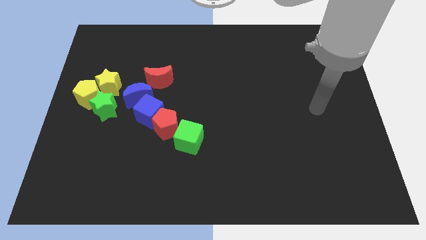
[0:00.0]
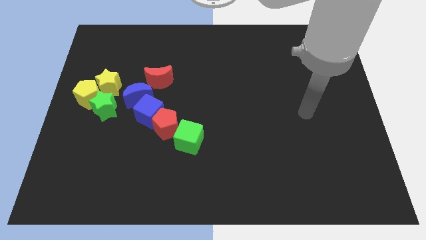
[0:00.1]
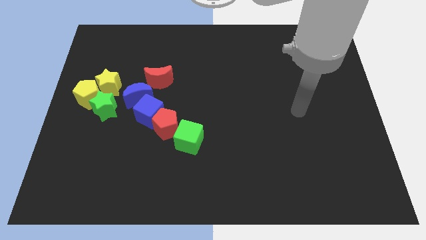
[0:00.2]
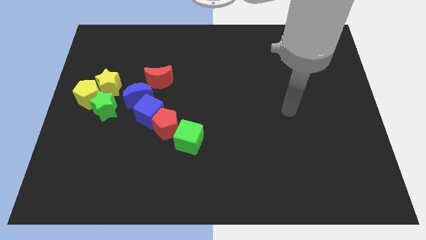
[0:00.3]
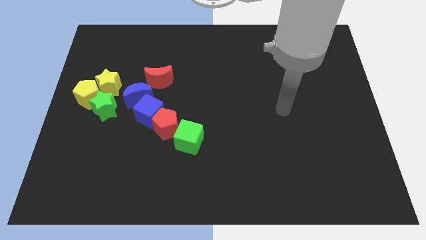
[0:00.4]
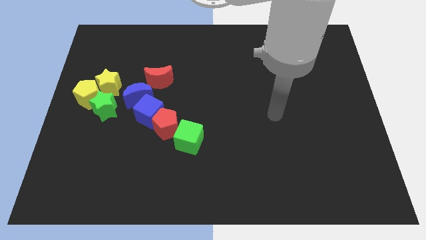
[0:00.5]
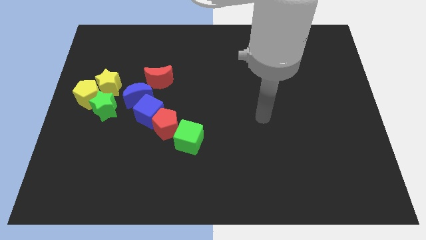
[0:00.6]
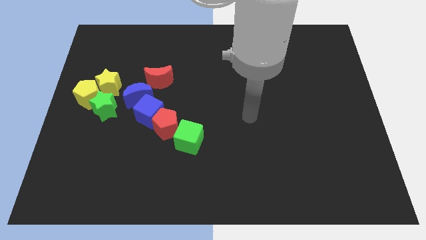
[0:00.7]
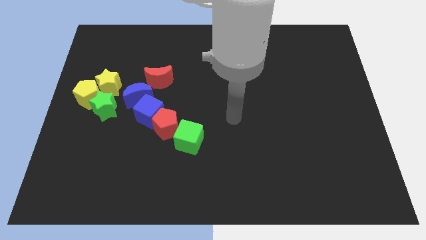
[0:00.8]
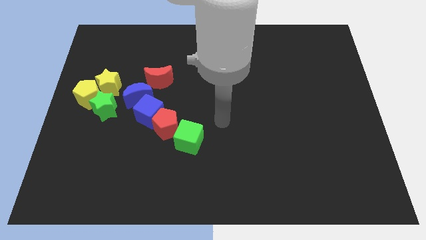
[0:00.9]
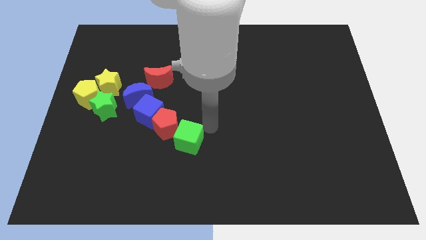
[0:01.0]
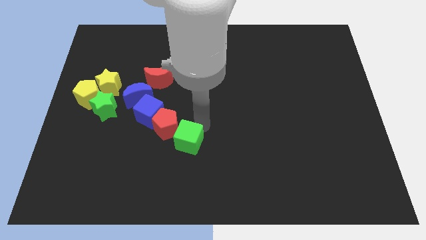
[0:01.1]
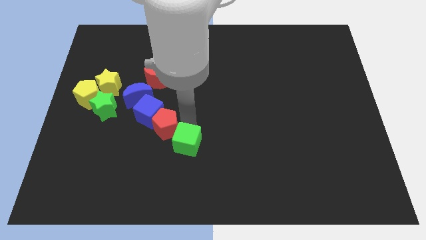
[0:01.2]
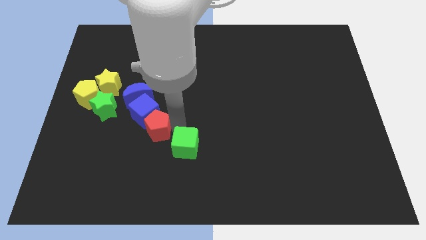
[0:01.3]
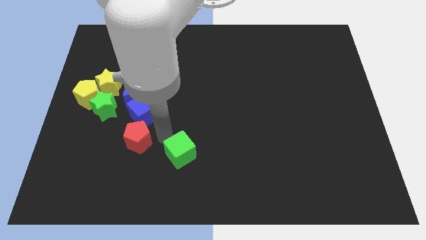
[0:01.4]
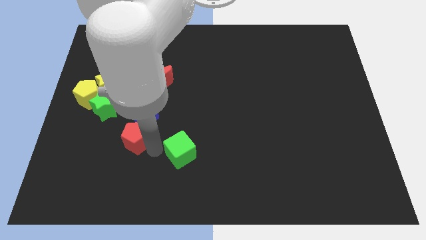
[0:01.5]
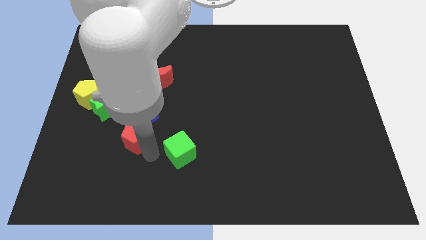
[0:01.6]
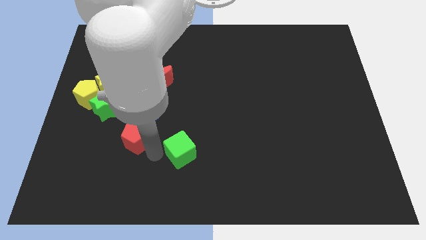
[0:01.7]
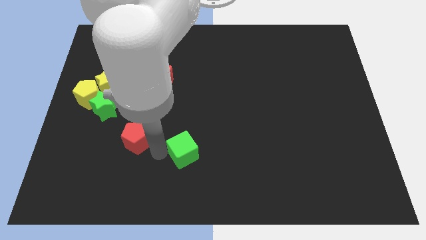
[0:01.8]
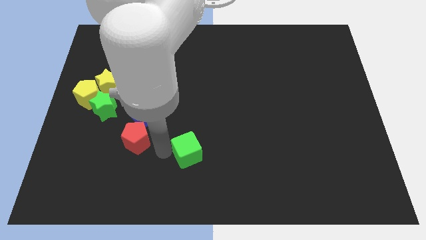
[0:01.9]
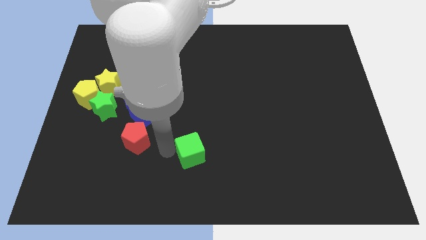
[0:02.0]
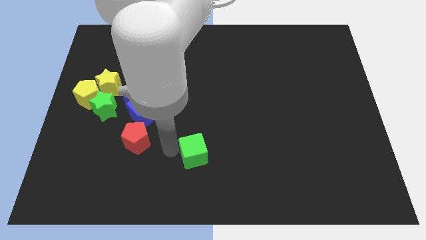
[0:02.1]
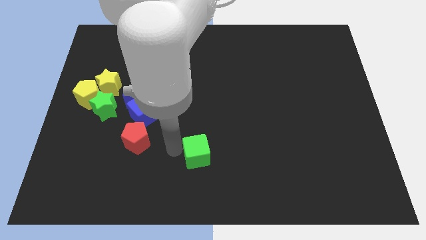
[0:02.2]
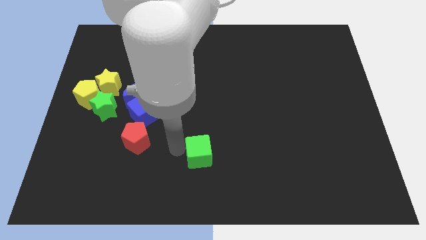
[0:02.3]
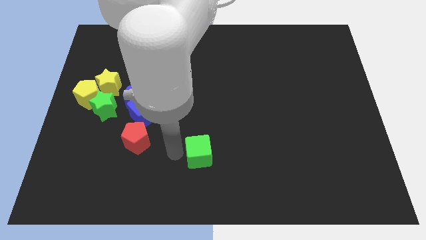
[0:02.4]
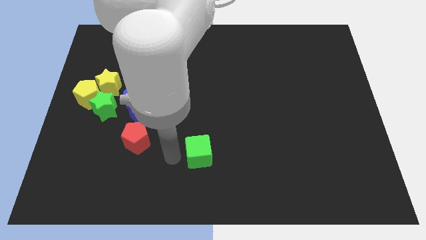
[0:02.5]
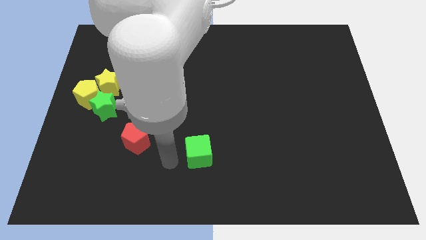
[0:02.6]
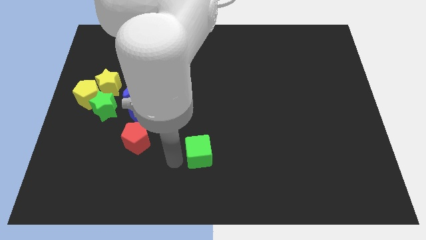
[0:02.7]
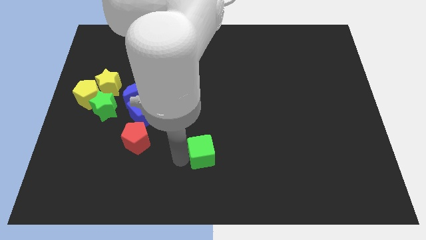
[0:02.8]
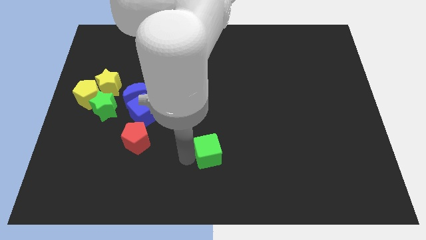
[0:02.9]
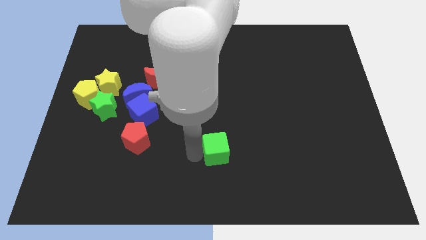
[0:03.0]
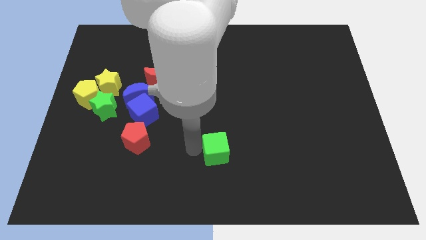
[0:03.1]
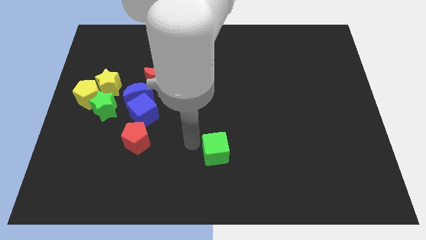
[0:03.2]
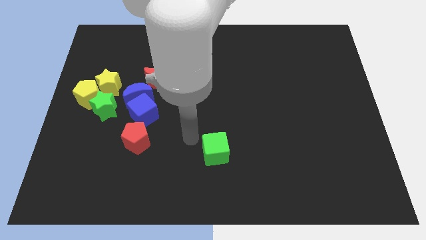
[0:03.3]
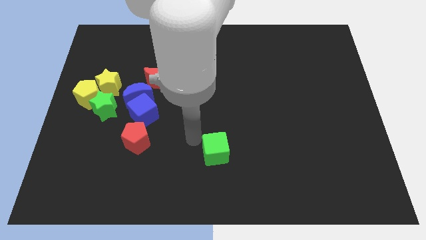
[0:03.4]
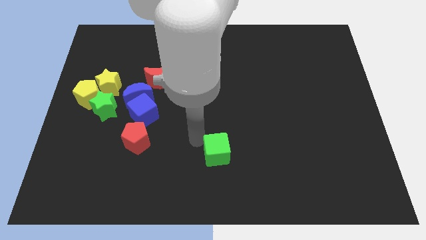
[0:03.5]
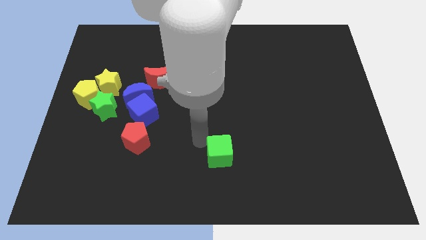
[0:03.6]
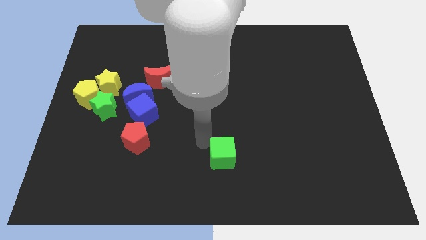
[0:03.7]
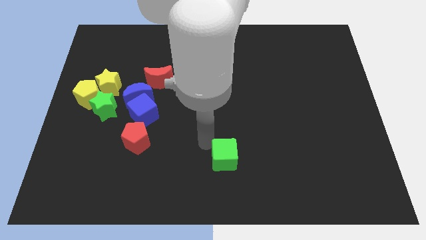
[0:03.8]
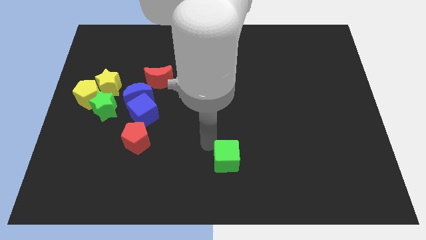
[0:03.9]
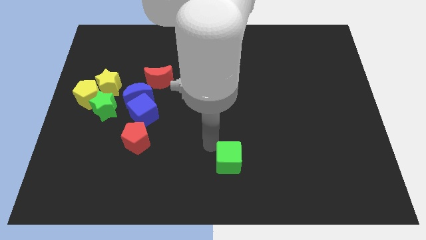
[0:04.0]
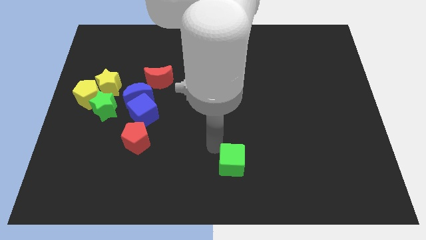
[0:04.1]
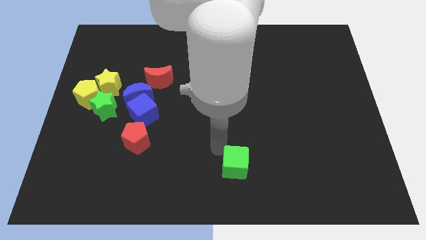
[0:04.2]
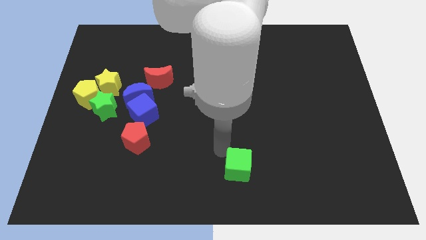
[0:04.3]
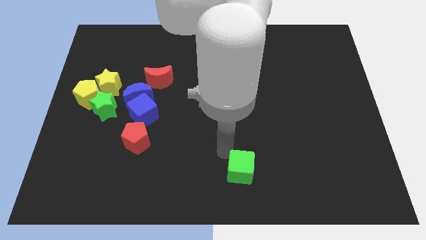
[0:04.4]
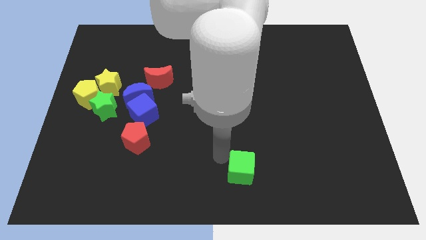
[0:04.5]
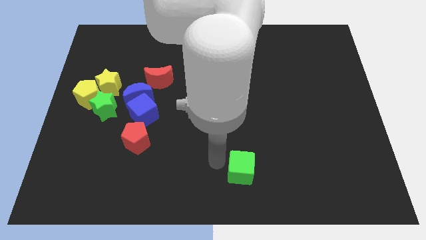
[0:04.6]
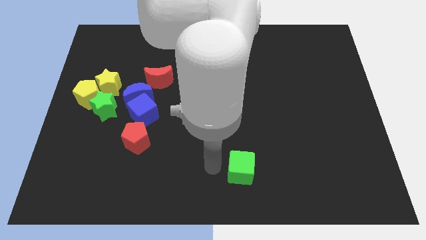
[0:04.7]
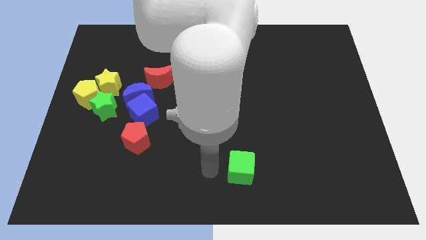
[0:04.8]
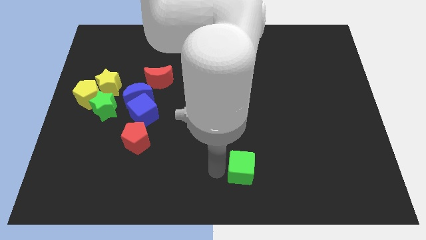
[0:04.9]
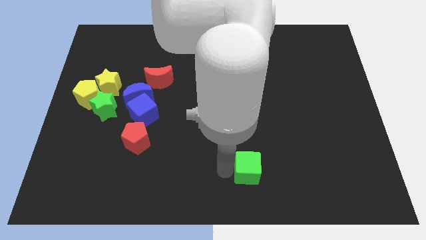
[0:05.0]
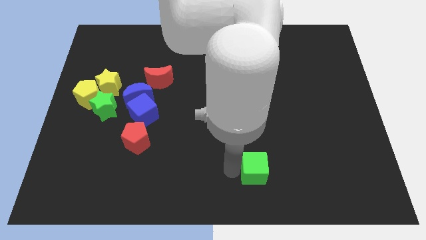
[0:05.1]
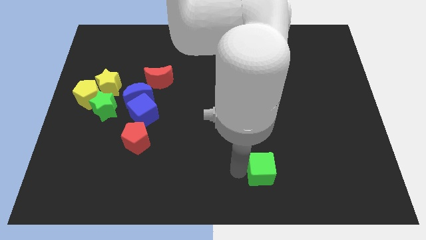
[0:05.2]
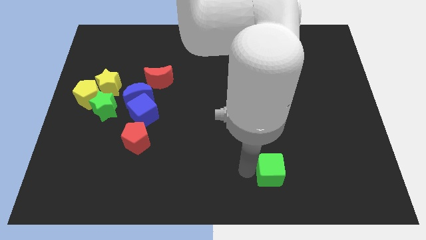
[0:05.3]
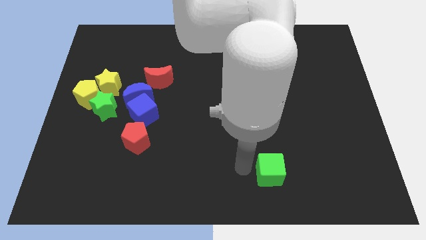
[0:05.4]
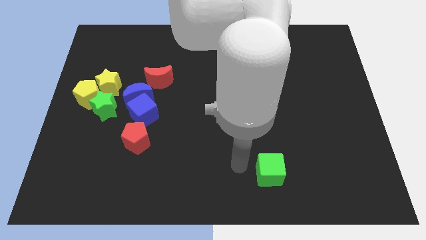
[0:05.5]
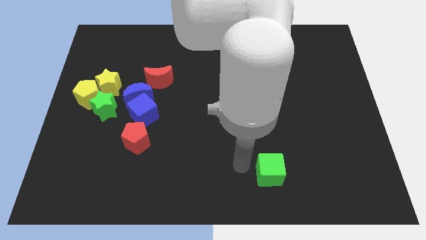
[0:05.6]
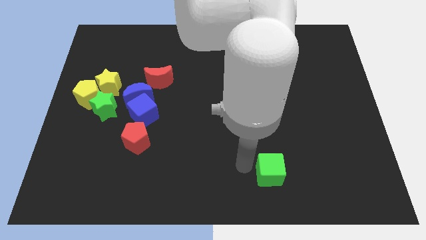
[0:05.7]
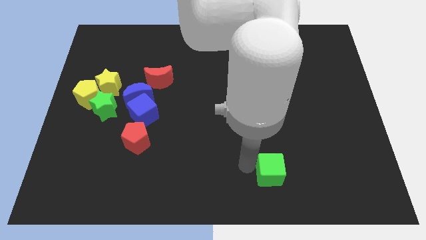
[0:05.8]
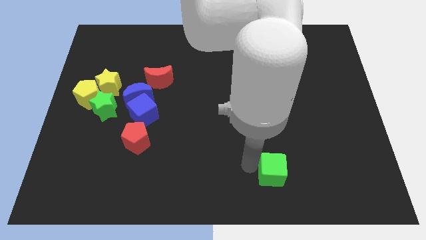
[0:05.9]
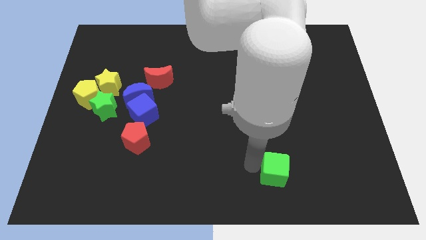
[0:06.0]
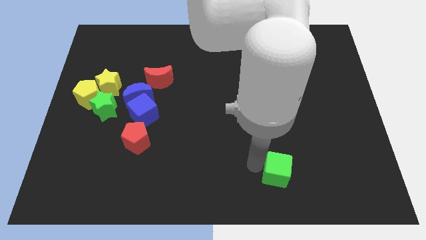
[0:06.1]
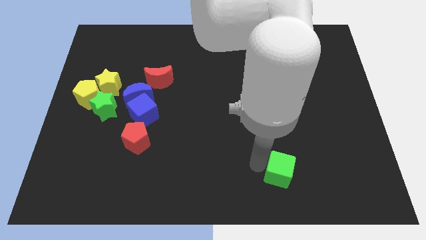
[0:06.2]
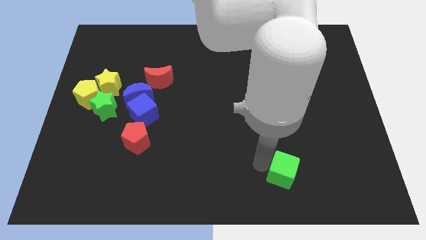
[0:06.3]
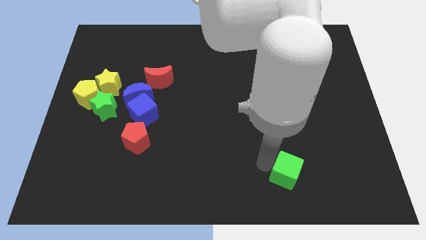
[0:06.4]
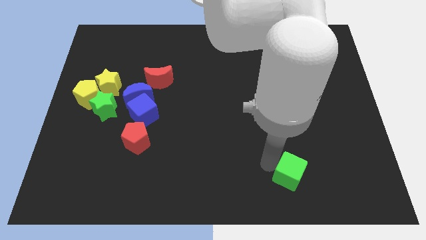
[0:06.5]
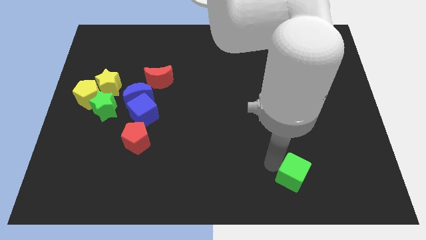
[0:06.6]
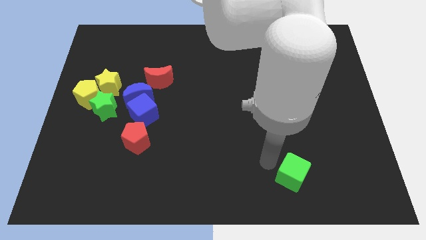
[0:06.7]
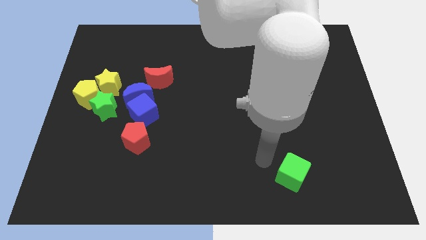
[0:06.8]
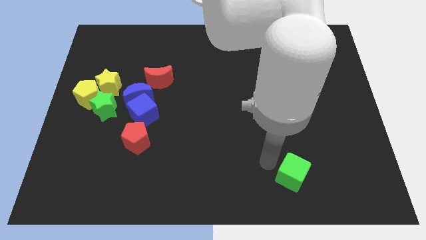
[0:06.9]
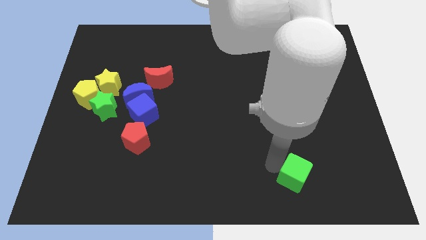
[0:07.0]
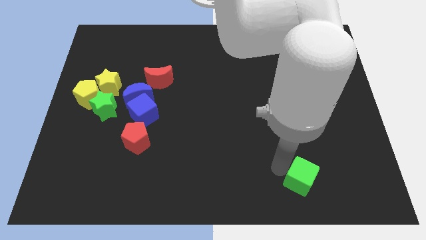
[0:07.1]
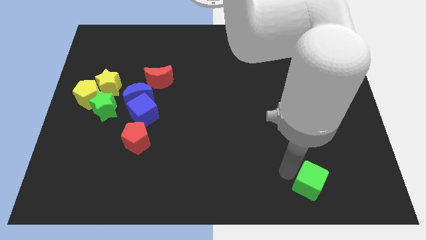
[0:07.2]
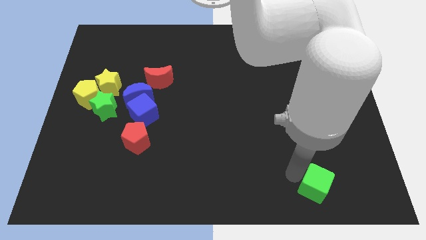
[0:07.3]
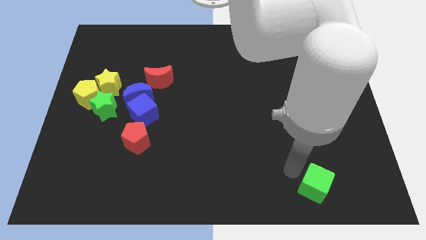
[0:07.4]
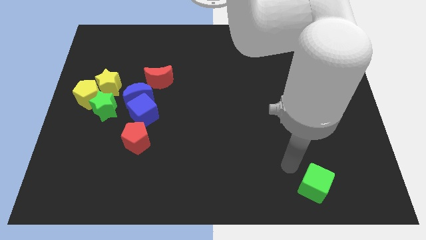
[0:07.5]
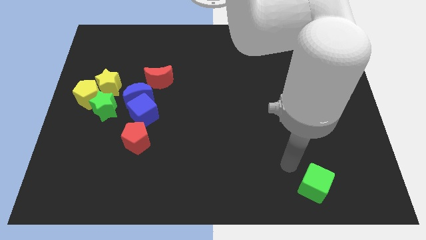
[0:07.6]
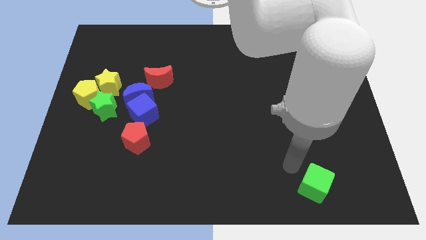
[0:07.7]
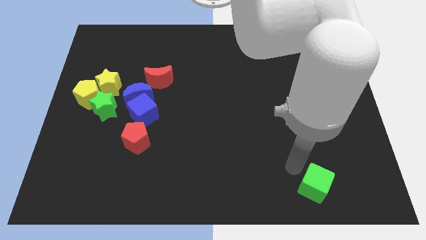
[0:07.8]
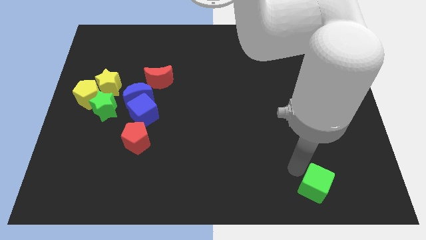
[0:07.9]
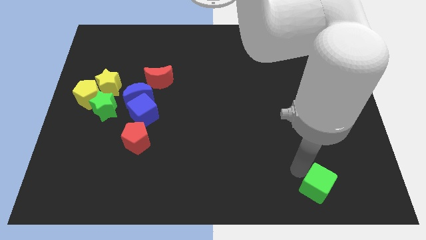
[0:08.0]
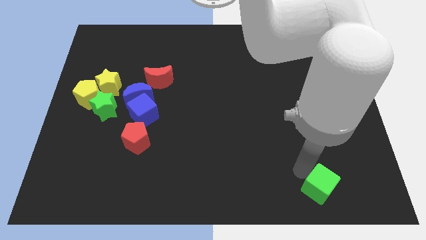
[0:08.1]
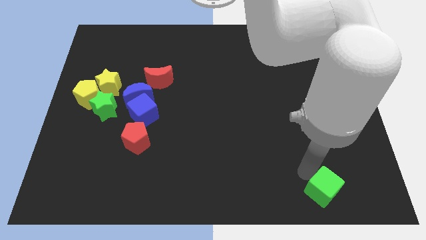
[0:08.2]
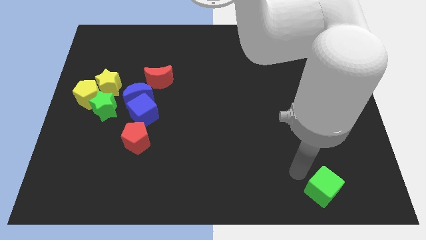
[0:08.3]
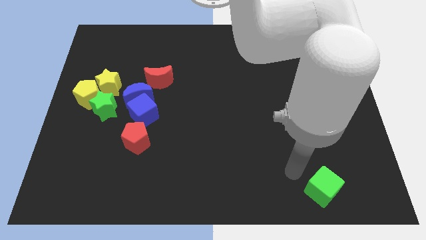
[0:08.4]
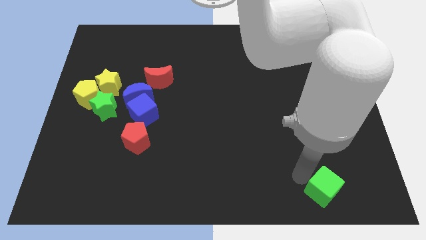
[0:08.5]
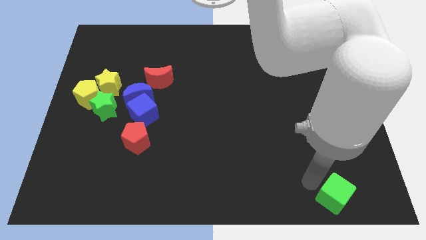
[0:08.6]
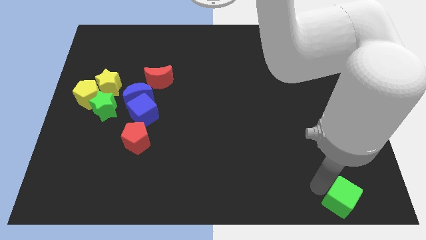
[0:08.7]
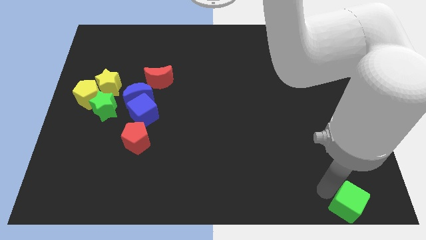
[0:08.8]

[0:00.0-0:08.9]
push the green cube to the lower right corner
